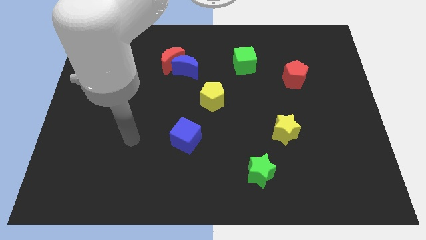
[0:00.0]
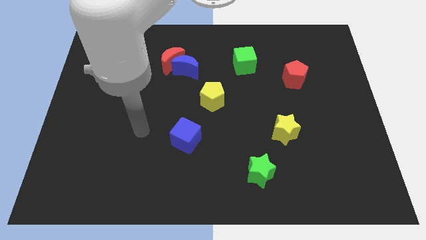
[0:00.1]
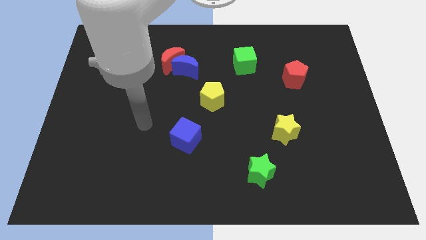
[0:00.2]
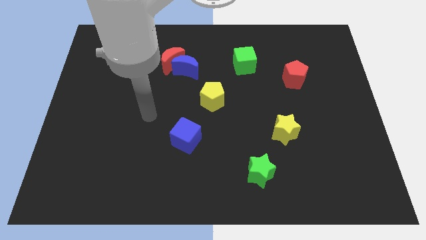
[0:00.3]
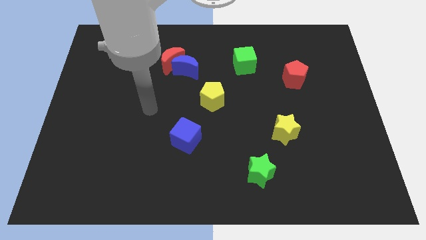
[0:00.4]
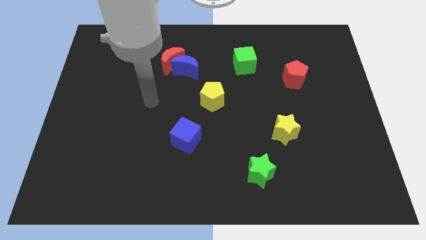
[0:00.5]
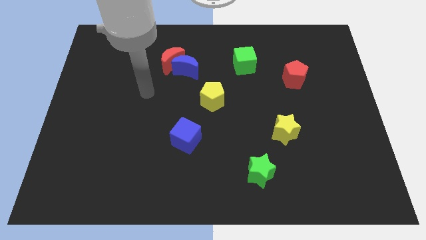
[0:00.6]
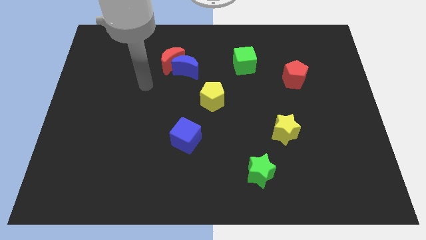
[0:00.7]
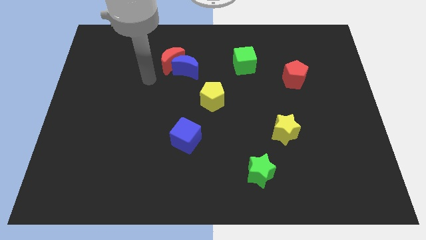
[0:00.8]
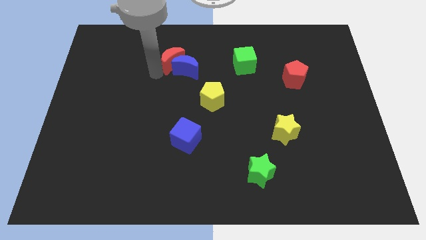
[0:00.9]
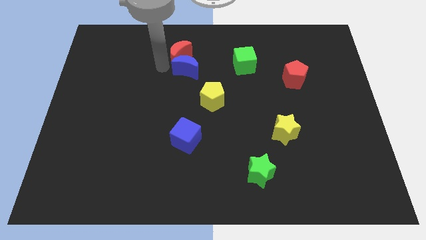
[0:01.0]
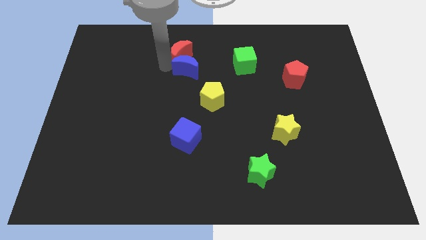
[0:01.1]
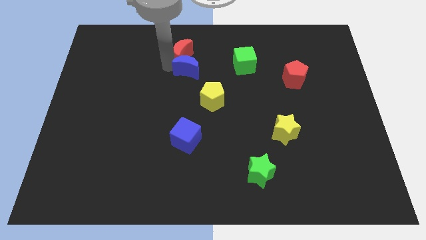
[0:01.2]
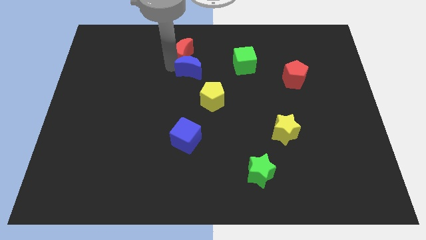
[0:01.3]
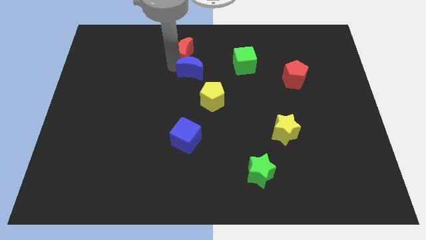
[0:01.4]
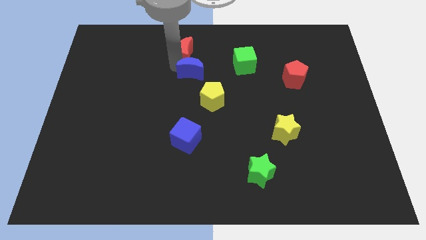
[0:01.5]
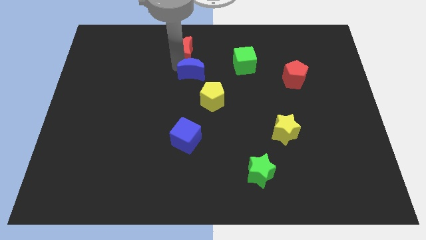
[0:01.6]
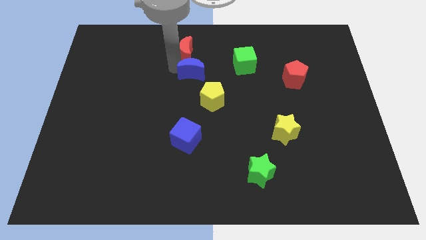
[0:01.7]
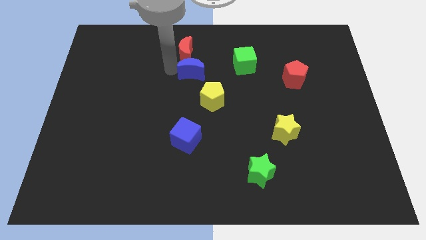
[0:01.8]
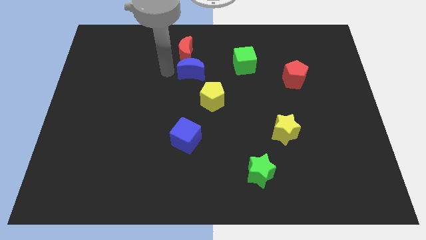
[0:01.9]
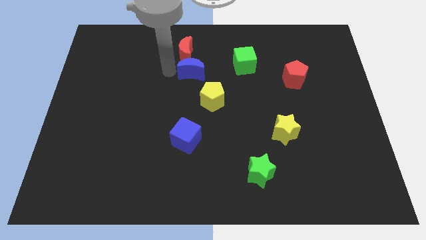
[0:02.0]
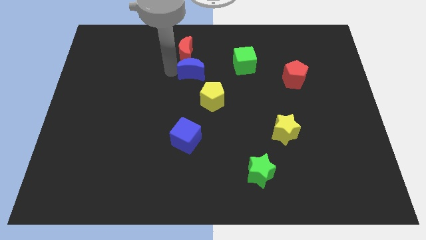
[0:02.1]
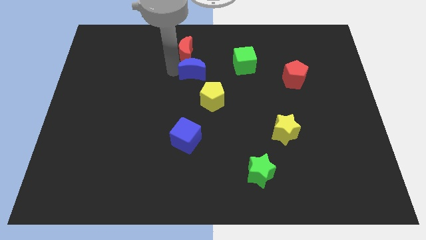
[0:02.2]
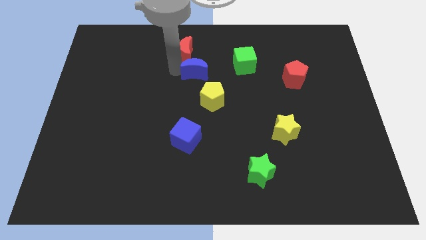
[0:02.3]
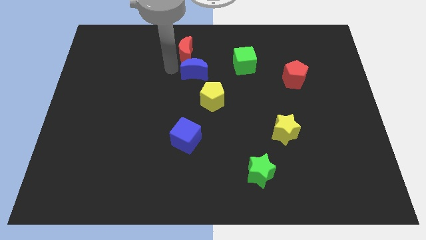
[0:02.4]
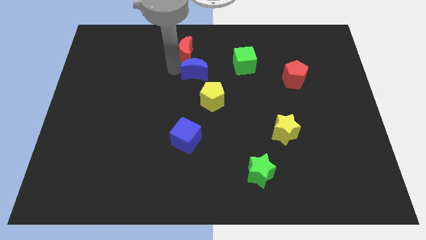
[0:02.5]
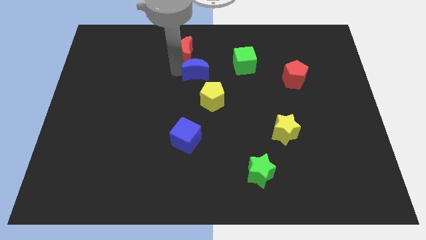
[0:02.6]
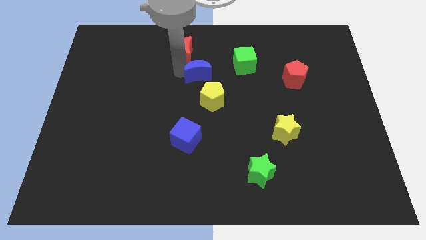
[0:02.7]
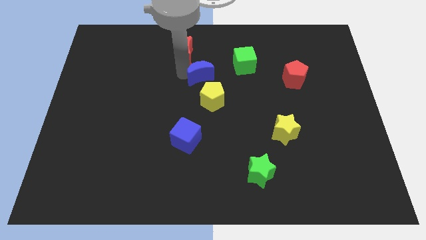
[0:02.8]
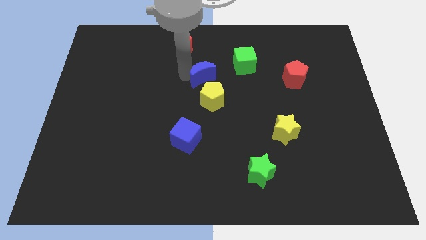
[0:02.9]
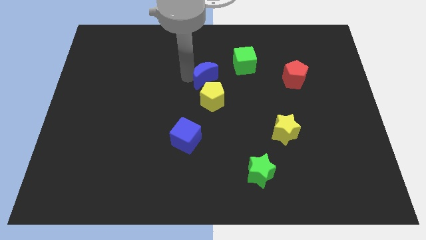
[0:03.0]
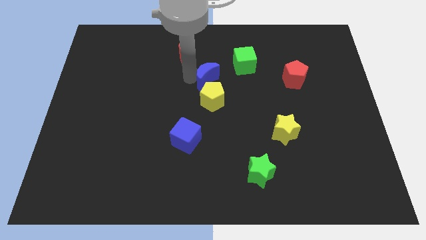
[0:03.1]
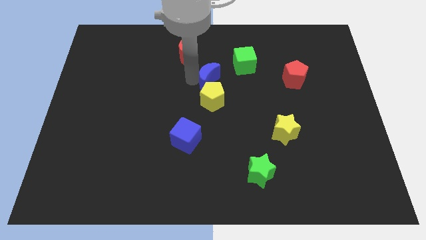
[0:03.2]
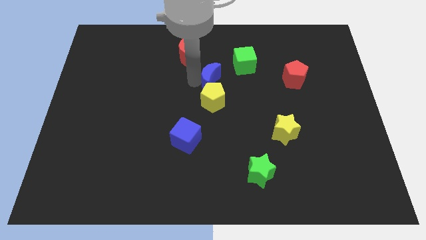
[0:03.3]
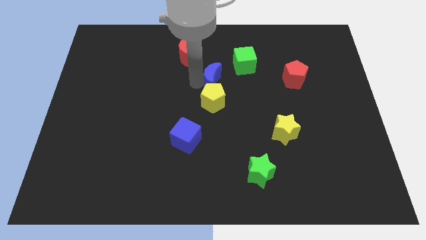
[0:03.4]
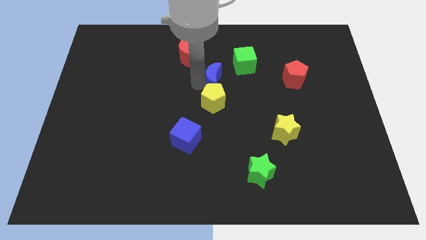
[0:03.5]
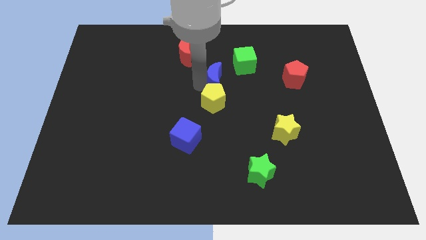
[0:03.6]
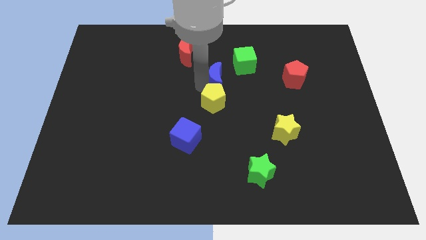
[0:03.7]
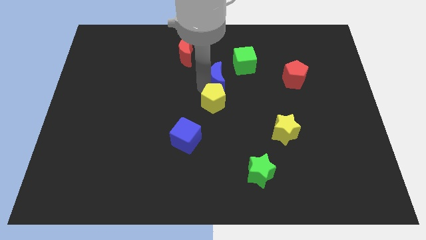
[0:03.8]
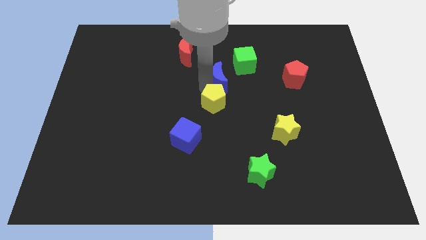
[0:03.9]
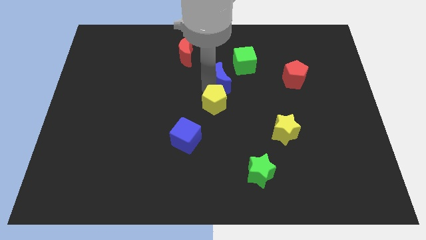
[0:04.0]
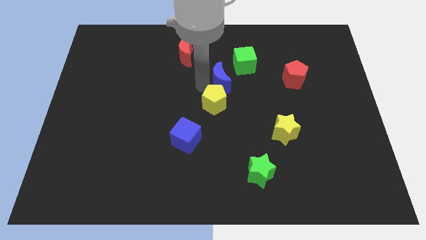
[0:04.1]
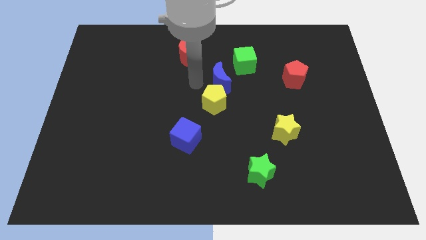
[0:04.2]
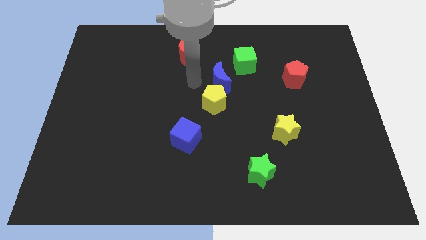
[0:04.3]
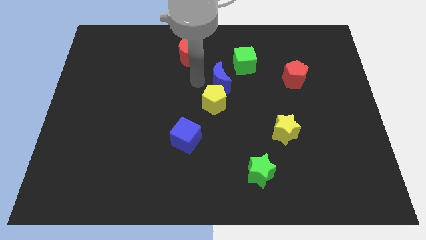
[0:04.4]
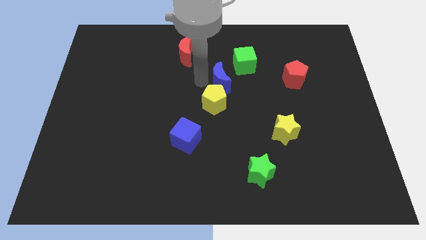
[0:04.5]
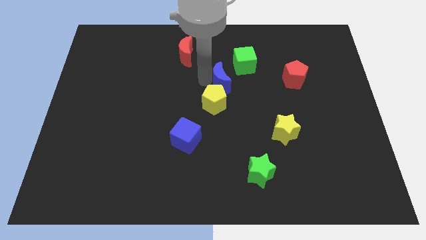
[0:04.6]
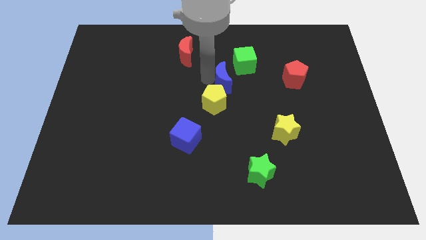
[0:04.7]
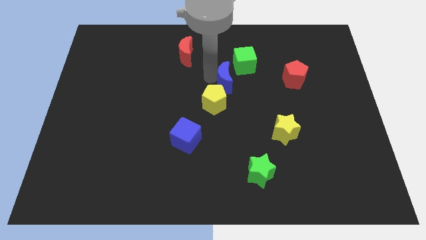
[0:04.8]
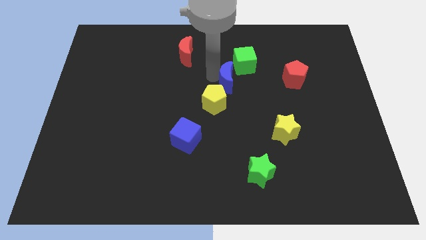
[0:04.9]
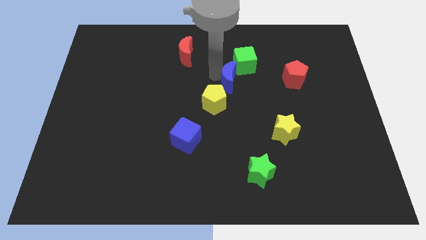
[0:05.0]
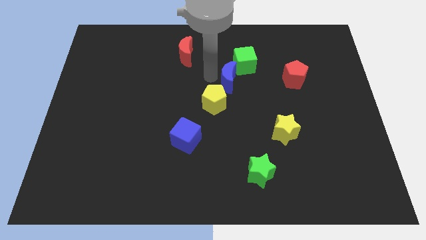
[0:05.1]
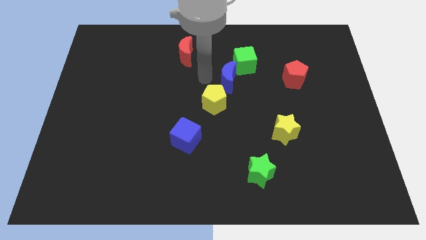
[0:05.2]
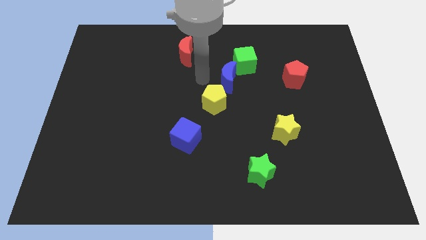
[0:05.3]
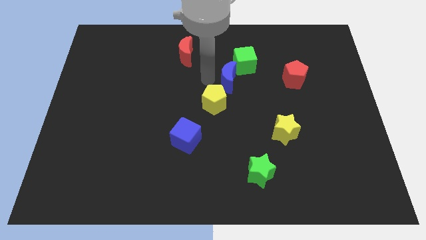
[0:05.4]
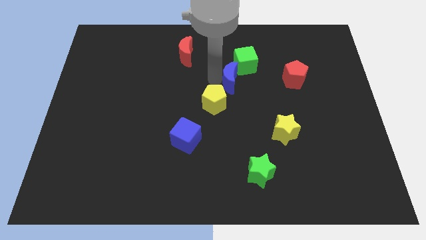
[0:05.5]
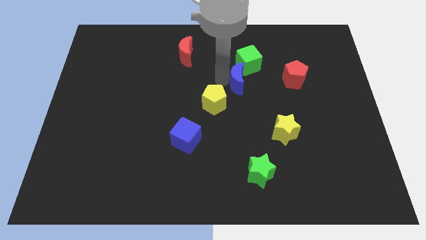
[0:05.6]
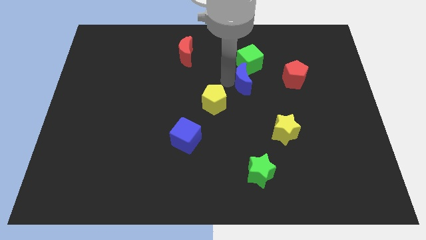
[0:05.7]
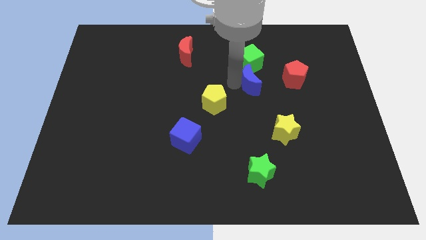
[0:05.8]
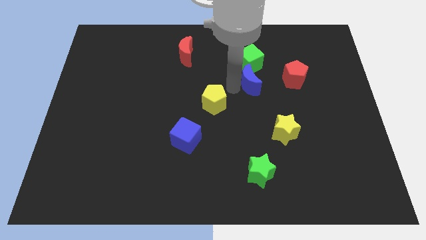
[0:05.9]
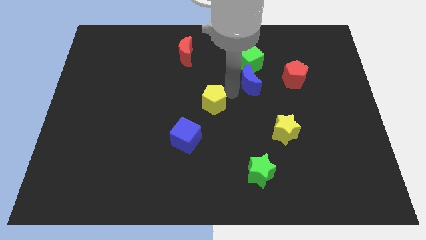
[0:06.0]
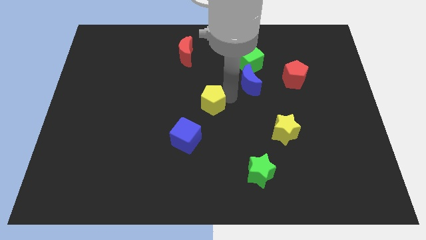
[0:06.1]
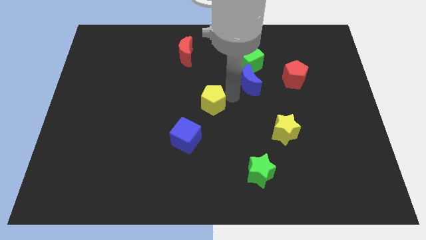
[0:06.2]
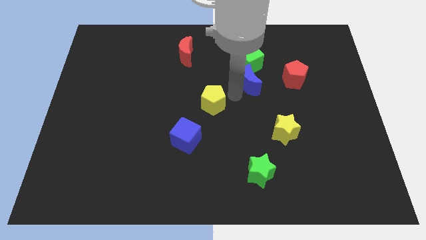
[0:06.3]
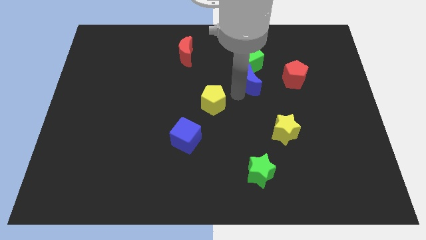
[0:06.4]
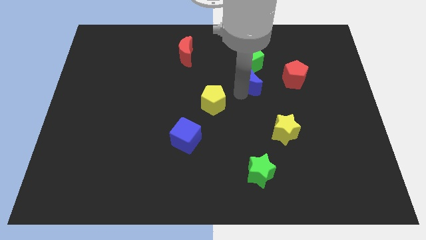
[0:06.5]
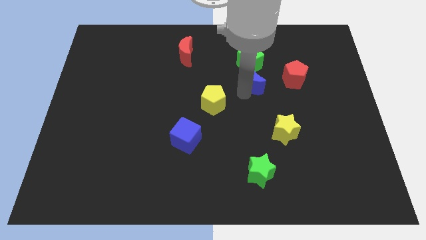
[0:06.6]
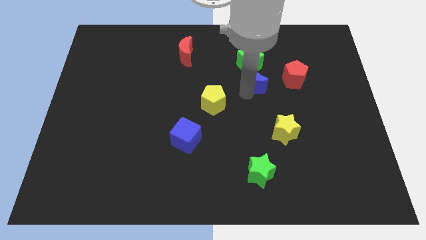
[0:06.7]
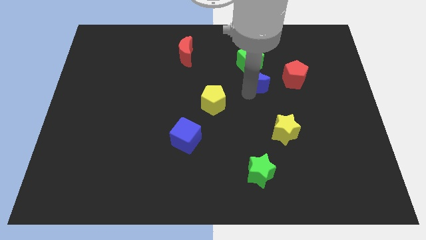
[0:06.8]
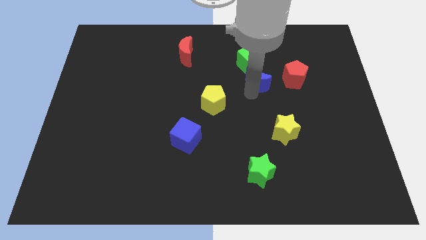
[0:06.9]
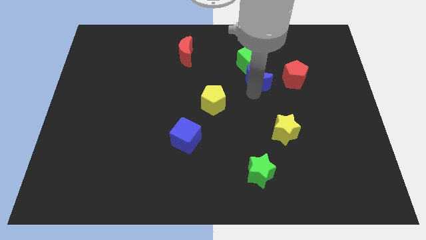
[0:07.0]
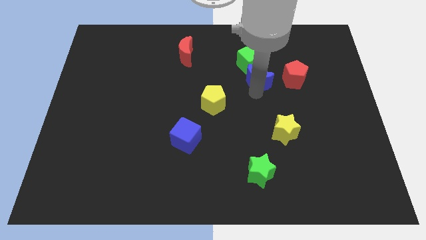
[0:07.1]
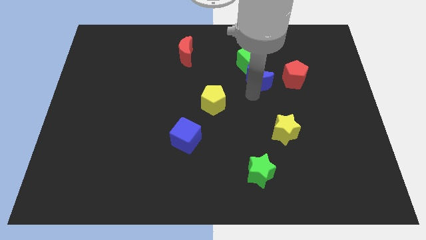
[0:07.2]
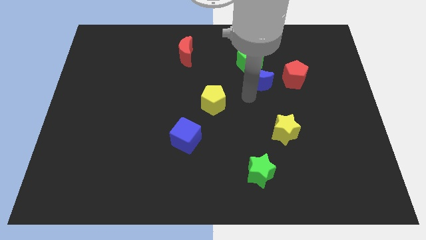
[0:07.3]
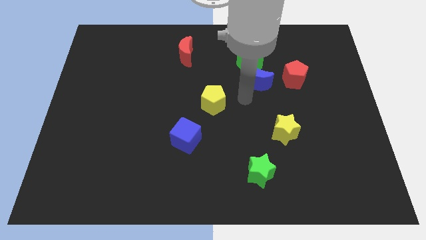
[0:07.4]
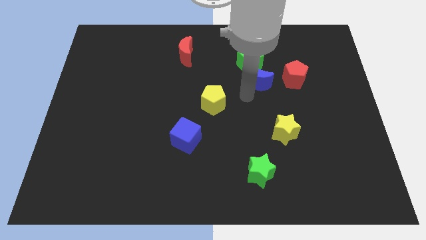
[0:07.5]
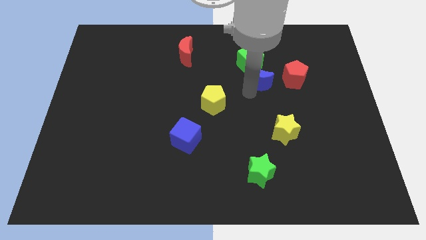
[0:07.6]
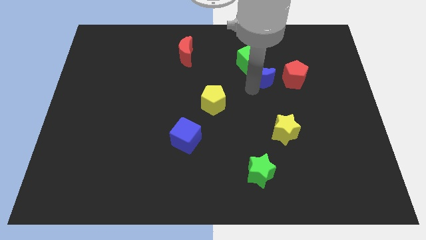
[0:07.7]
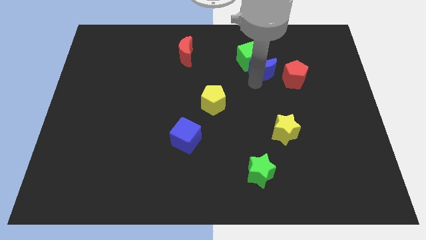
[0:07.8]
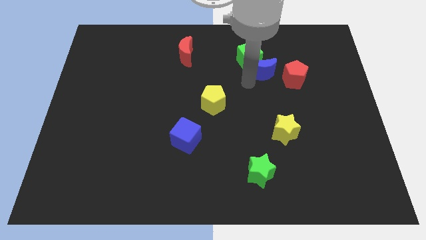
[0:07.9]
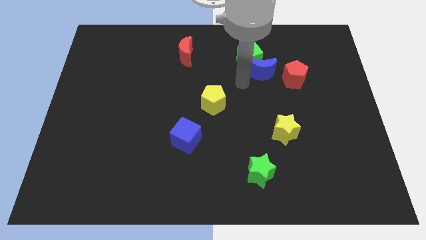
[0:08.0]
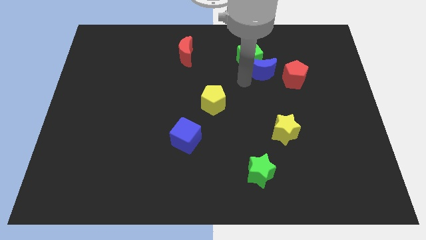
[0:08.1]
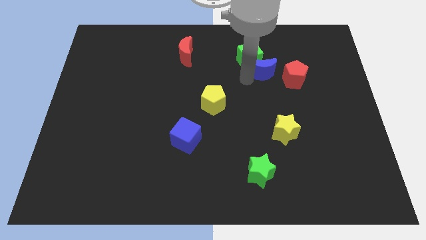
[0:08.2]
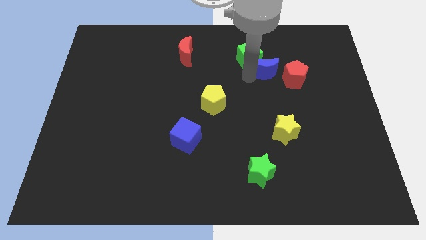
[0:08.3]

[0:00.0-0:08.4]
push the blue moon to the right of the green cube
